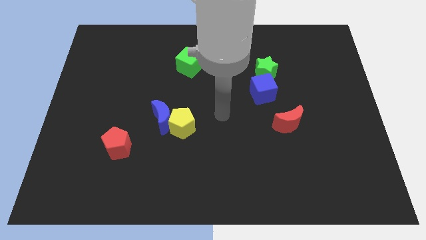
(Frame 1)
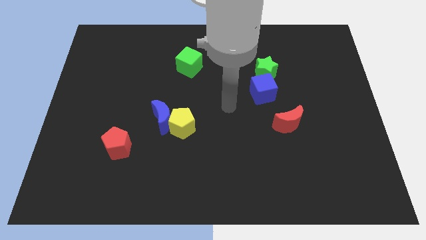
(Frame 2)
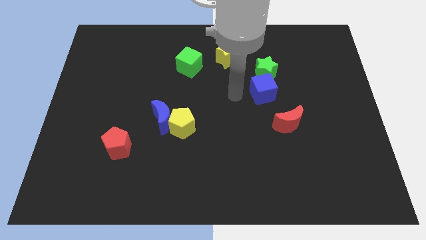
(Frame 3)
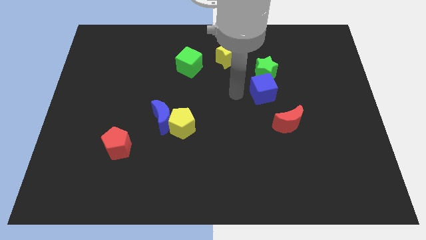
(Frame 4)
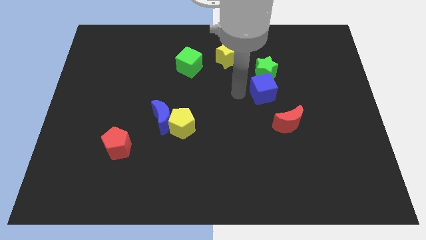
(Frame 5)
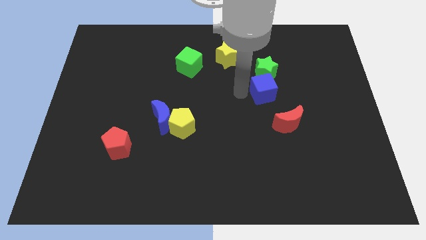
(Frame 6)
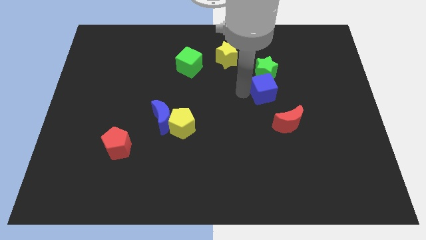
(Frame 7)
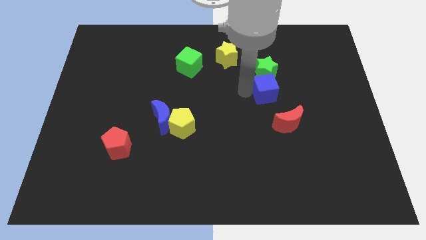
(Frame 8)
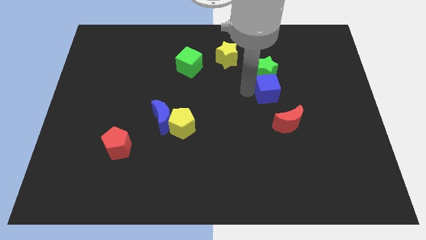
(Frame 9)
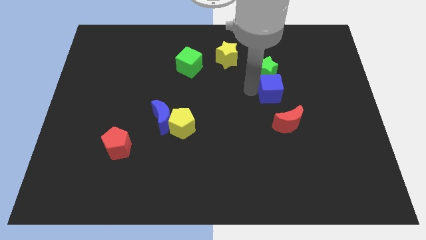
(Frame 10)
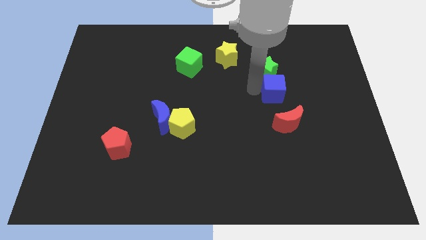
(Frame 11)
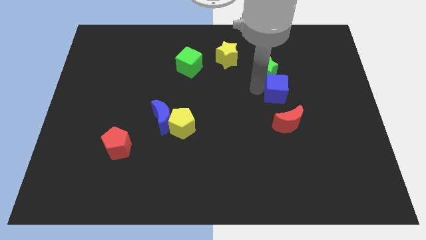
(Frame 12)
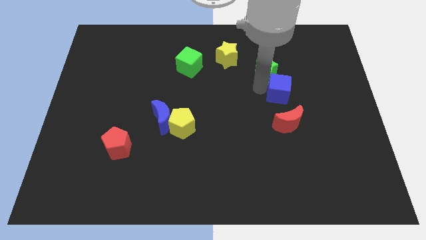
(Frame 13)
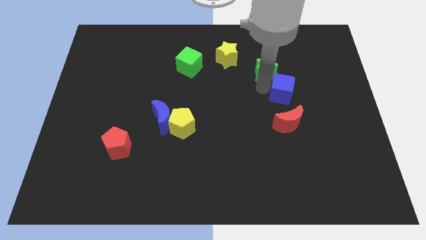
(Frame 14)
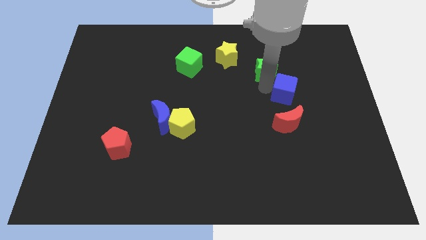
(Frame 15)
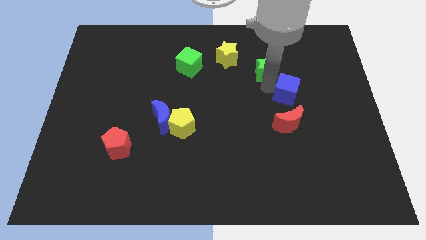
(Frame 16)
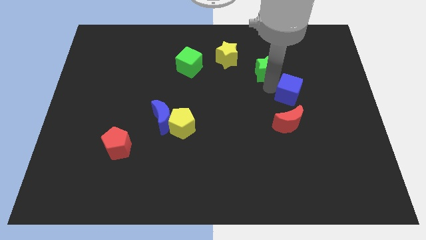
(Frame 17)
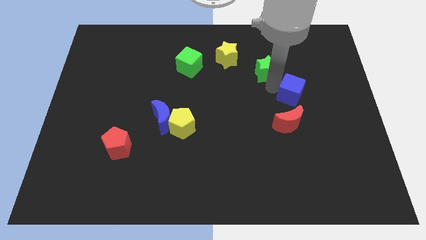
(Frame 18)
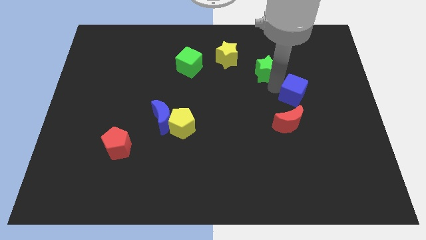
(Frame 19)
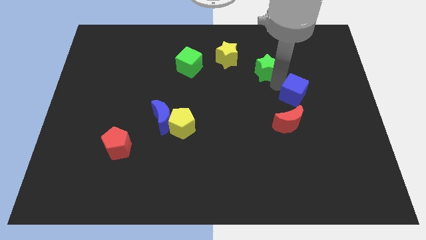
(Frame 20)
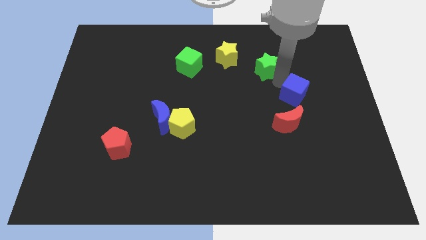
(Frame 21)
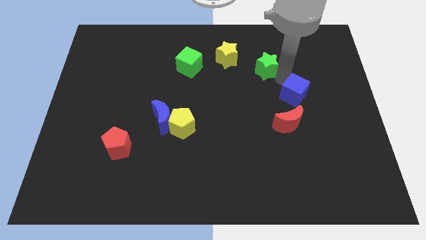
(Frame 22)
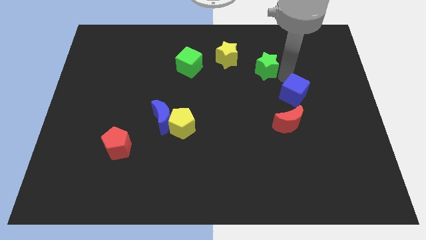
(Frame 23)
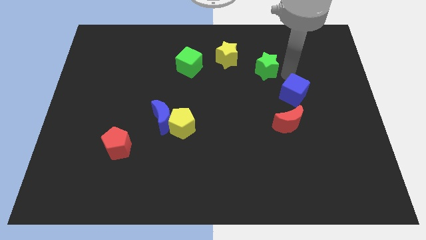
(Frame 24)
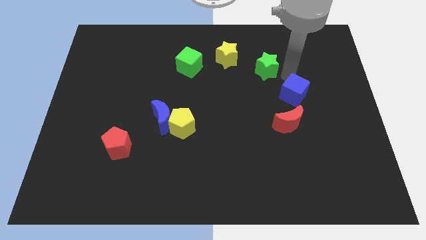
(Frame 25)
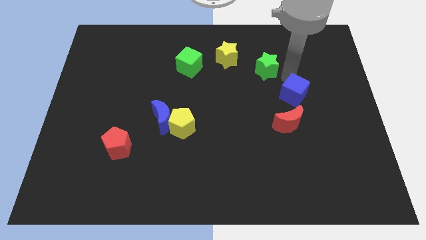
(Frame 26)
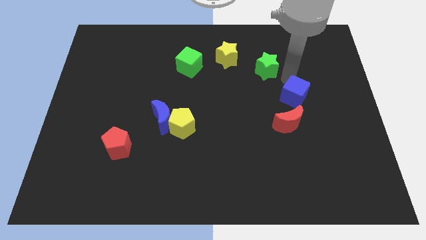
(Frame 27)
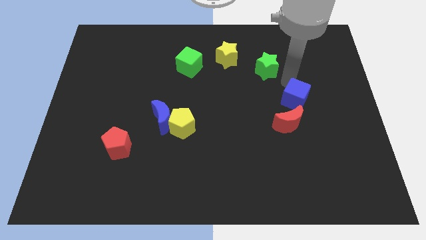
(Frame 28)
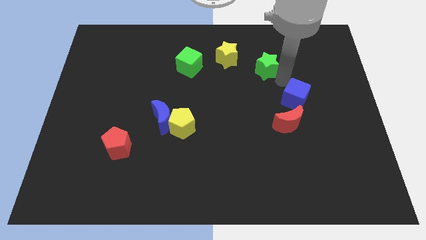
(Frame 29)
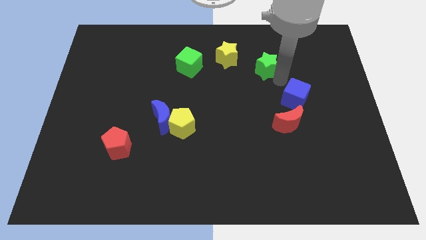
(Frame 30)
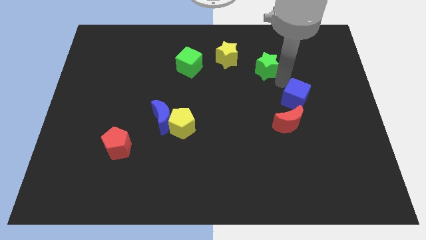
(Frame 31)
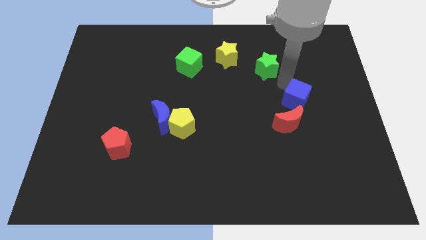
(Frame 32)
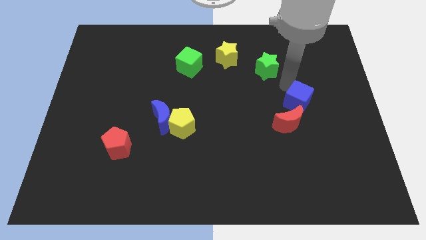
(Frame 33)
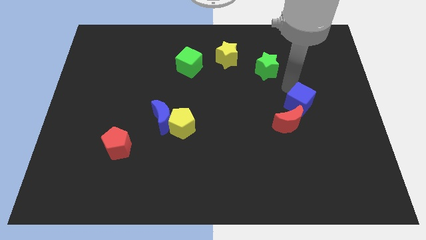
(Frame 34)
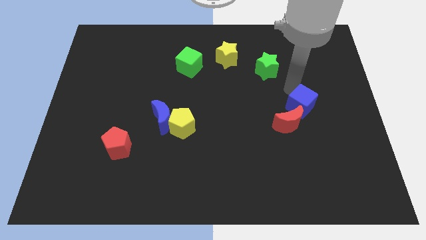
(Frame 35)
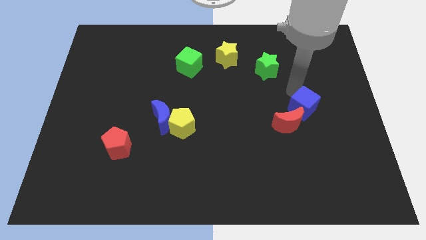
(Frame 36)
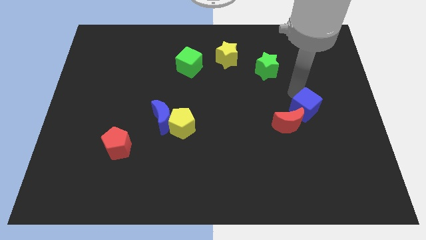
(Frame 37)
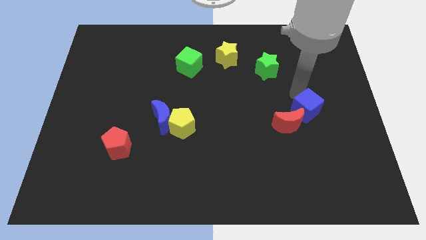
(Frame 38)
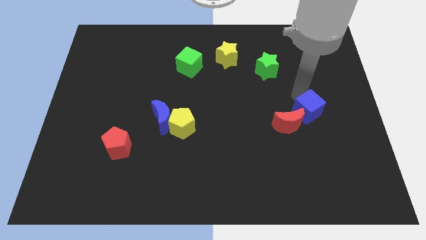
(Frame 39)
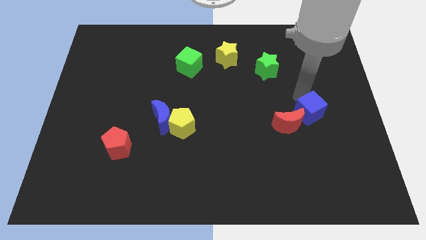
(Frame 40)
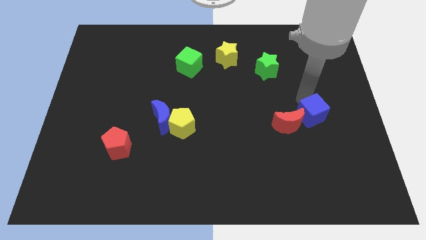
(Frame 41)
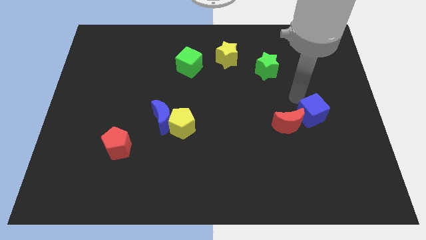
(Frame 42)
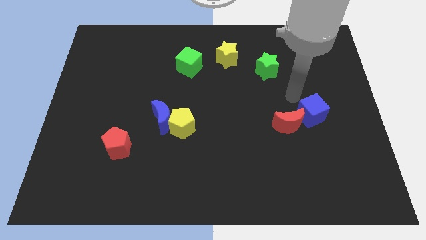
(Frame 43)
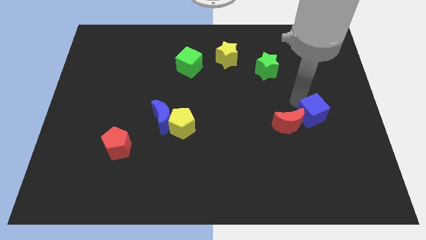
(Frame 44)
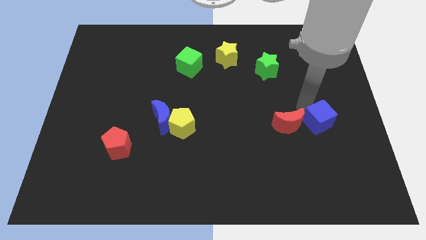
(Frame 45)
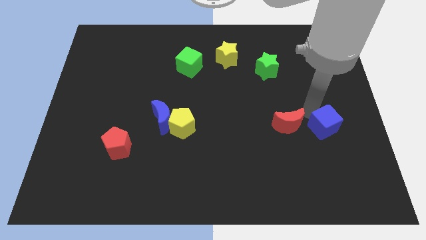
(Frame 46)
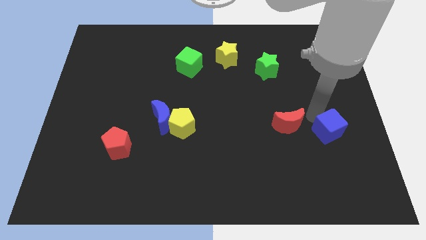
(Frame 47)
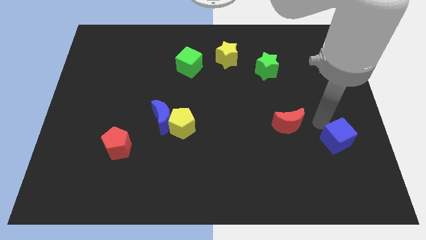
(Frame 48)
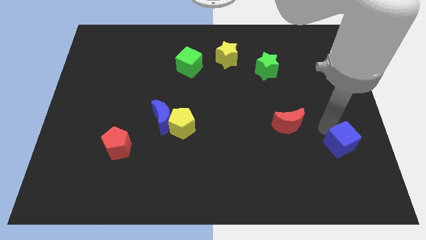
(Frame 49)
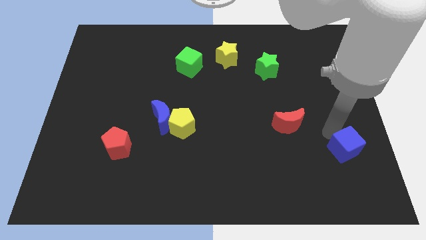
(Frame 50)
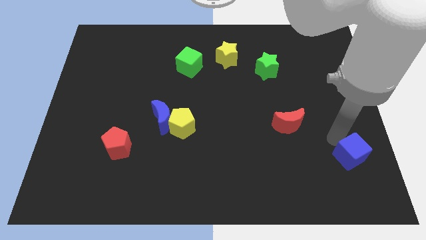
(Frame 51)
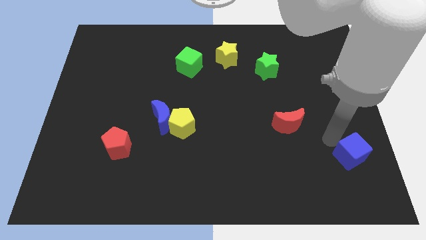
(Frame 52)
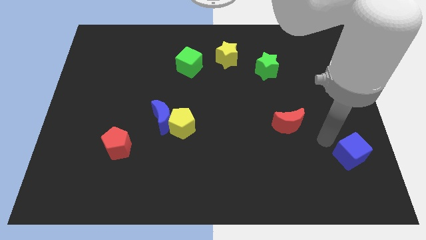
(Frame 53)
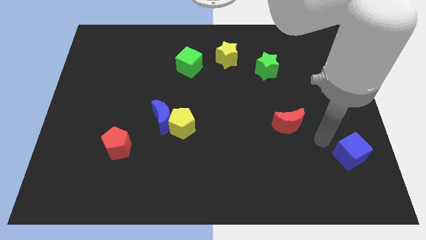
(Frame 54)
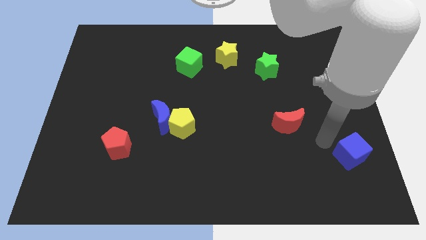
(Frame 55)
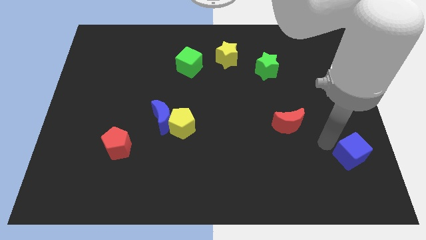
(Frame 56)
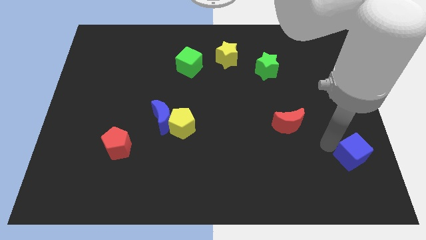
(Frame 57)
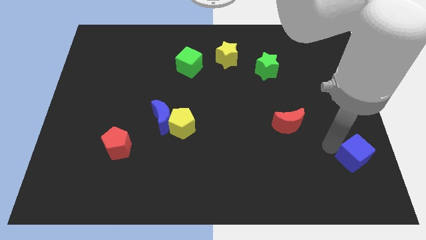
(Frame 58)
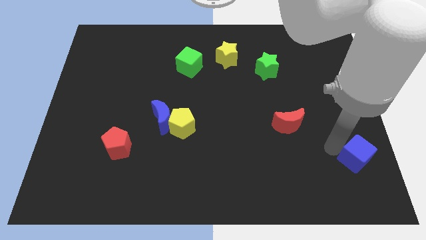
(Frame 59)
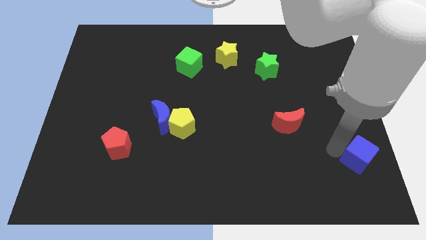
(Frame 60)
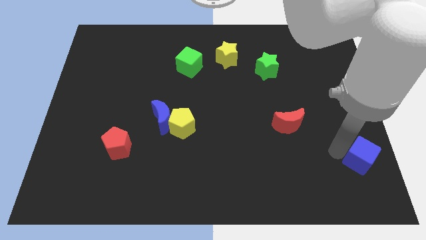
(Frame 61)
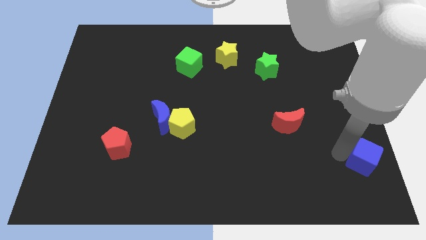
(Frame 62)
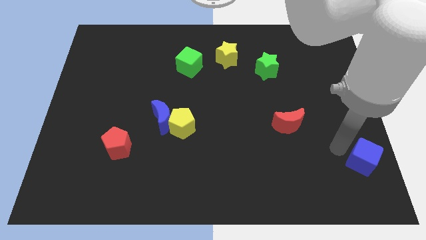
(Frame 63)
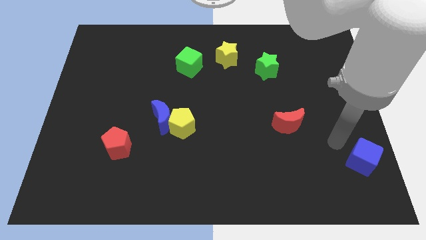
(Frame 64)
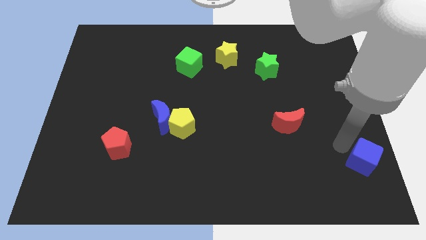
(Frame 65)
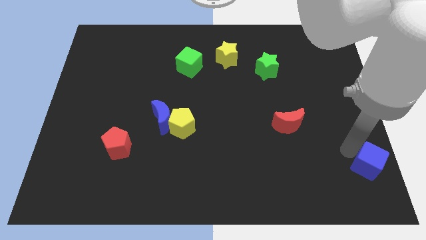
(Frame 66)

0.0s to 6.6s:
slide the blue cube to the bottom right of the board

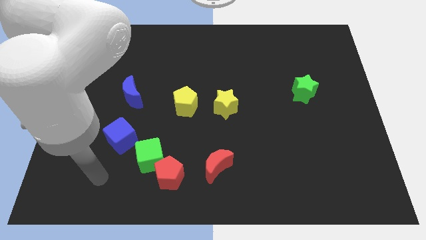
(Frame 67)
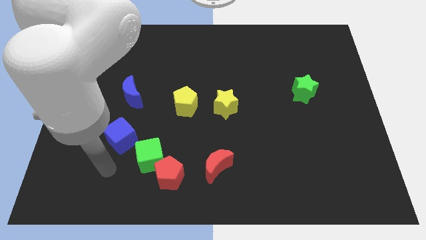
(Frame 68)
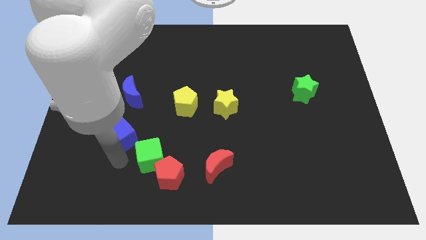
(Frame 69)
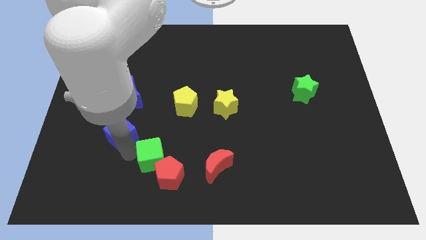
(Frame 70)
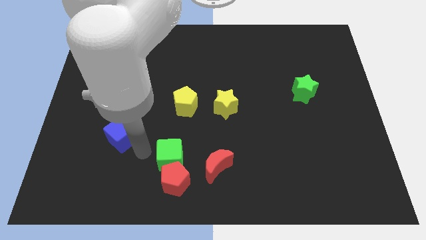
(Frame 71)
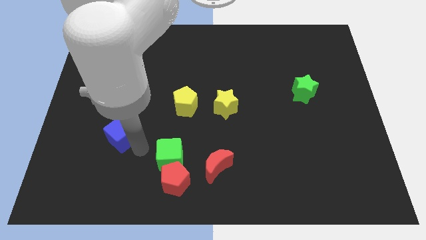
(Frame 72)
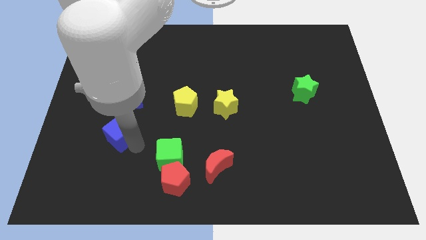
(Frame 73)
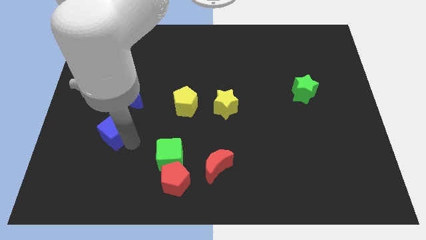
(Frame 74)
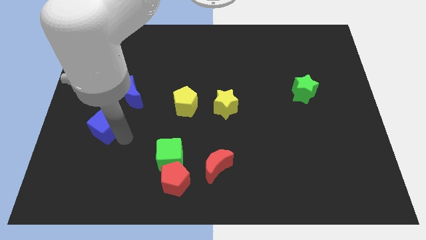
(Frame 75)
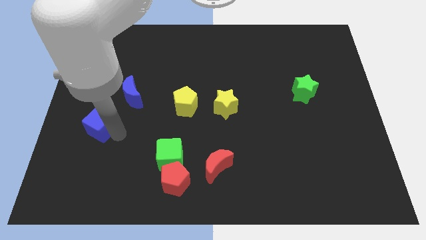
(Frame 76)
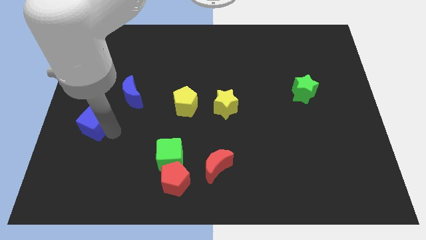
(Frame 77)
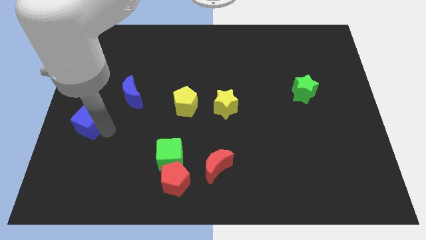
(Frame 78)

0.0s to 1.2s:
slide the blue cube to the left side of the board
